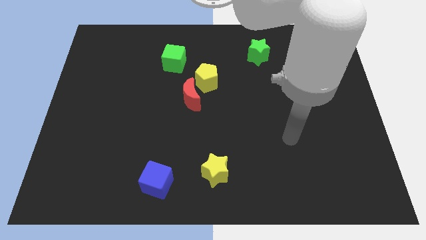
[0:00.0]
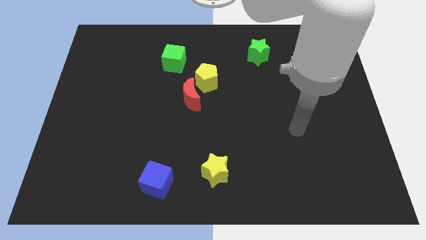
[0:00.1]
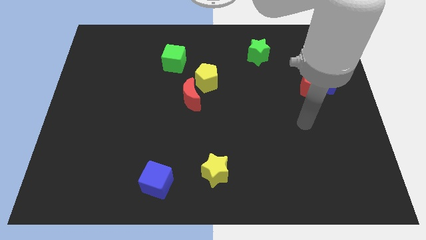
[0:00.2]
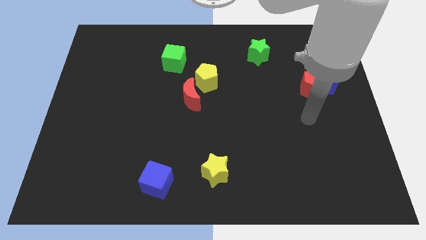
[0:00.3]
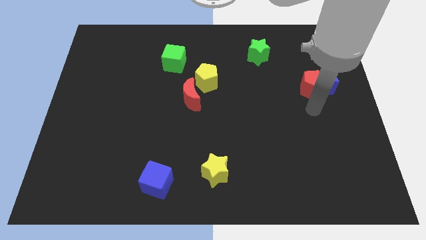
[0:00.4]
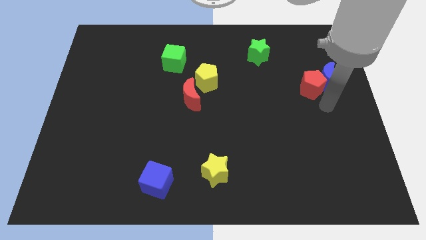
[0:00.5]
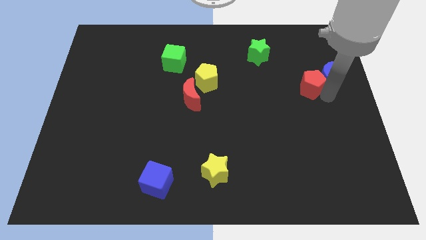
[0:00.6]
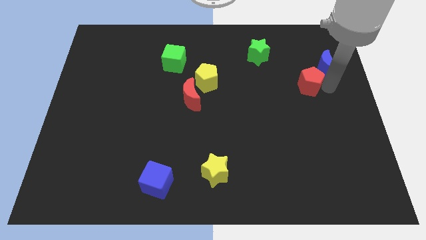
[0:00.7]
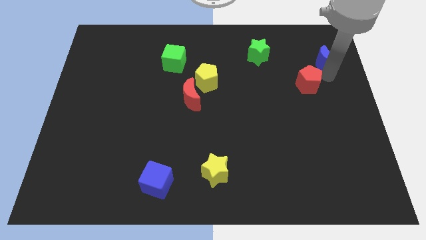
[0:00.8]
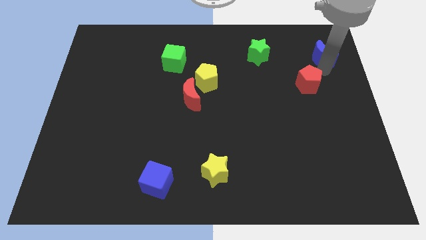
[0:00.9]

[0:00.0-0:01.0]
pull the red pentagon apart from the blue moon

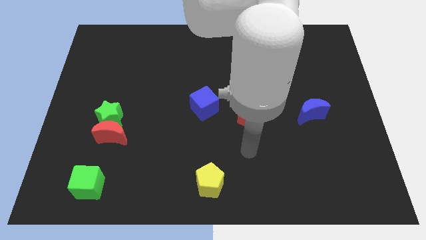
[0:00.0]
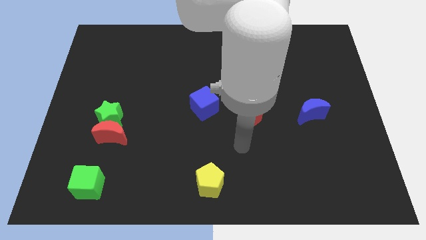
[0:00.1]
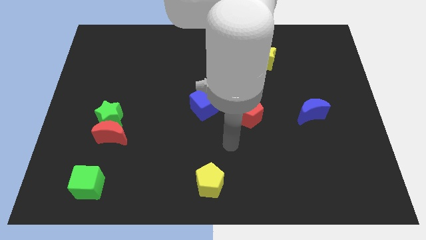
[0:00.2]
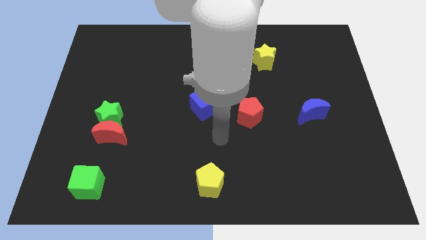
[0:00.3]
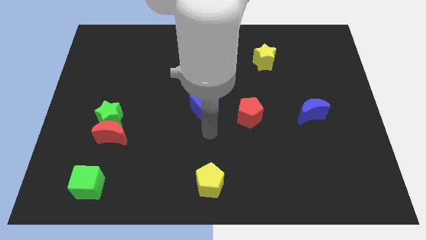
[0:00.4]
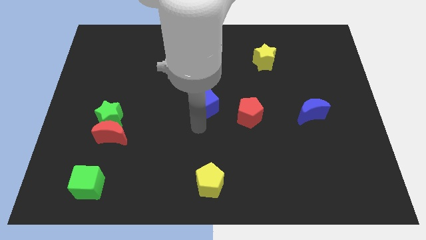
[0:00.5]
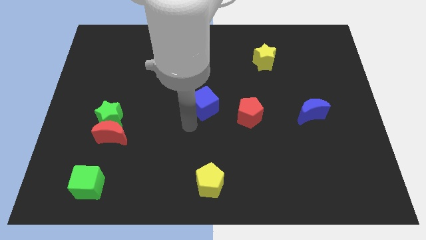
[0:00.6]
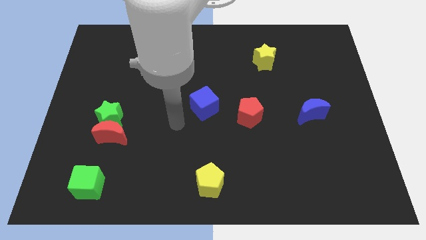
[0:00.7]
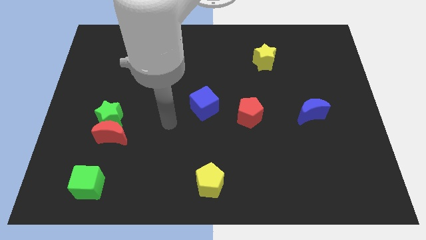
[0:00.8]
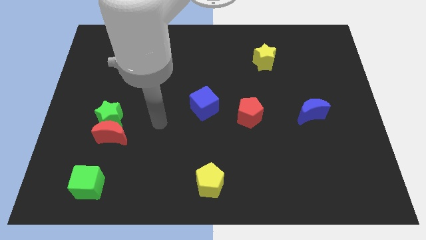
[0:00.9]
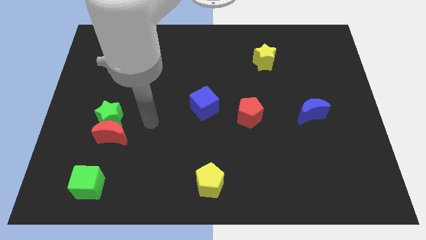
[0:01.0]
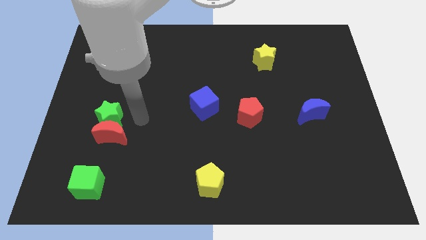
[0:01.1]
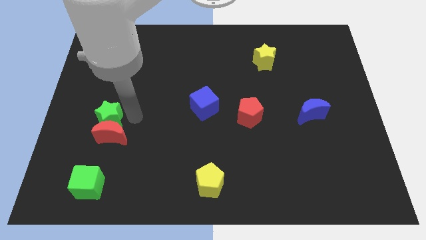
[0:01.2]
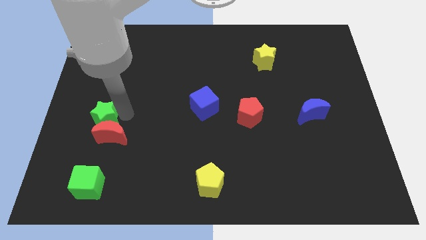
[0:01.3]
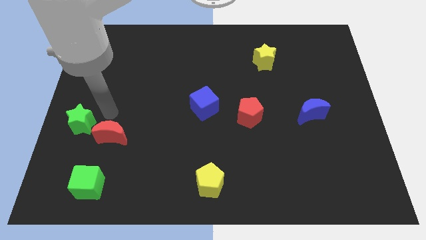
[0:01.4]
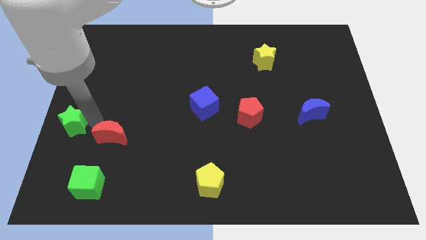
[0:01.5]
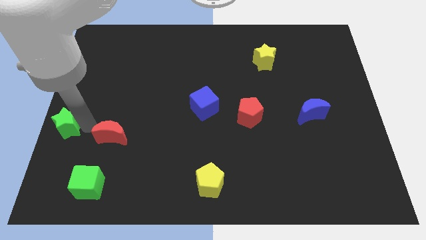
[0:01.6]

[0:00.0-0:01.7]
move the red moon away from the green star

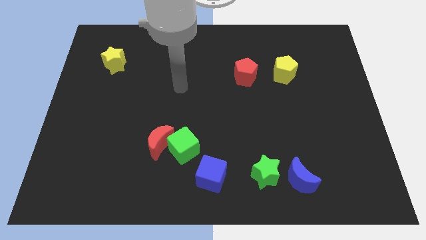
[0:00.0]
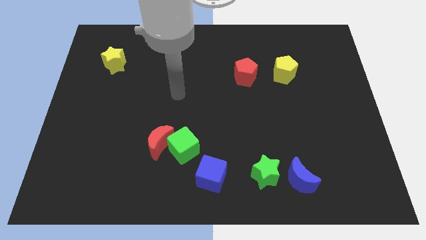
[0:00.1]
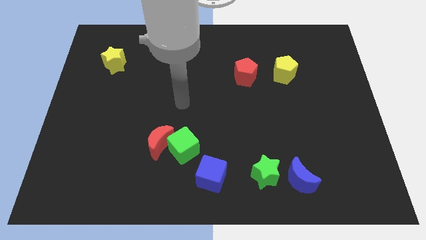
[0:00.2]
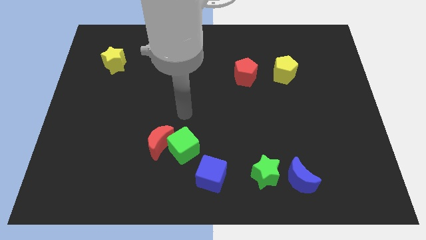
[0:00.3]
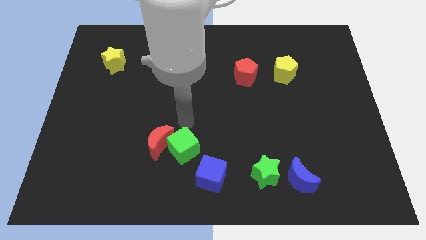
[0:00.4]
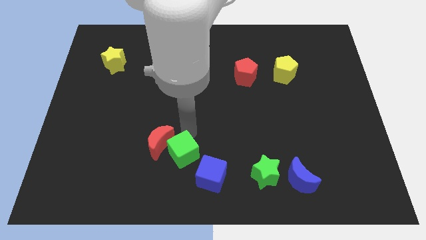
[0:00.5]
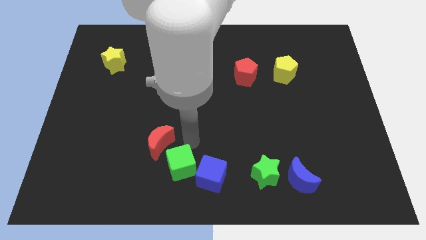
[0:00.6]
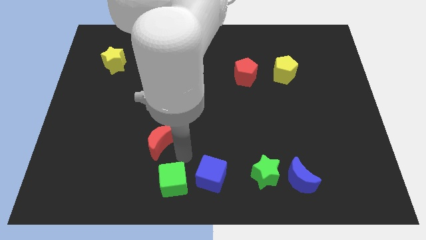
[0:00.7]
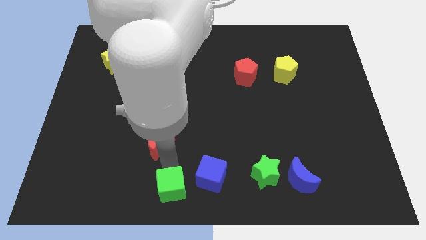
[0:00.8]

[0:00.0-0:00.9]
move the red moon away from the green cube

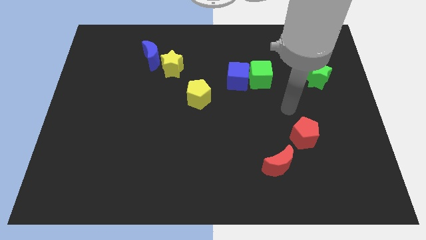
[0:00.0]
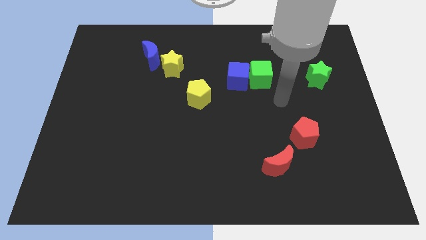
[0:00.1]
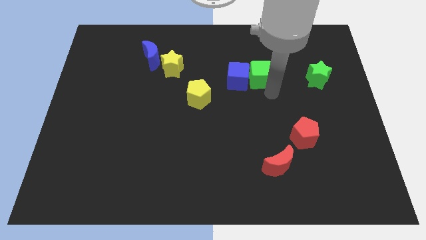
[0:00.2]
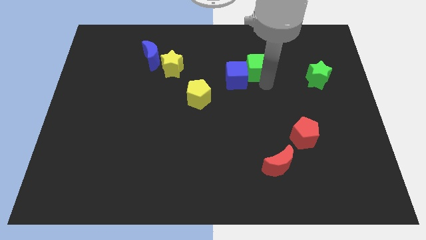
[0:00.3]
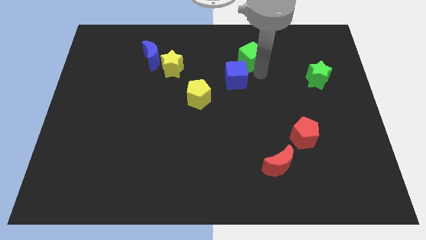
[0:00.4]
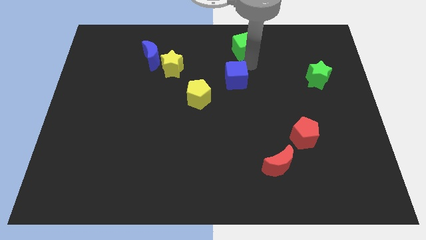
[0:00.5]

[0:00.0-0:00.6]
pull the blue cube apart from the green cube

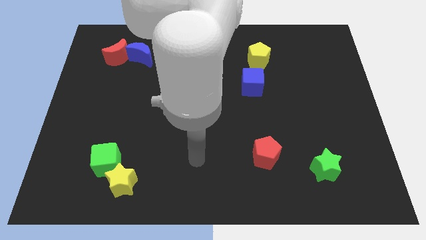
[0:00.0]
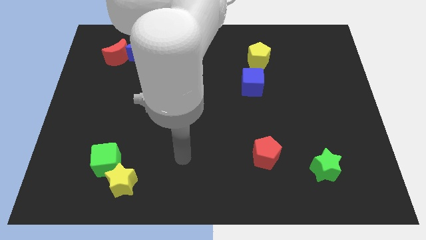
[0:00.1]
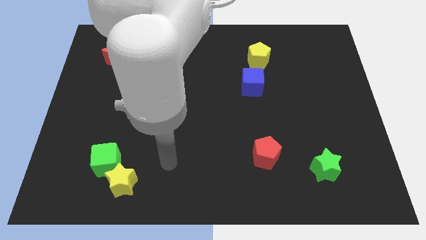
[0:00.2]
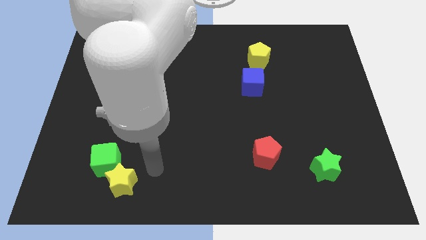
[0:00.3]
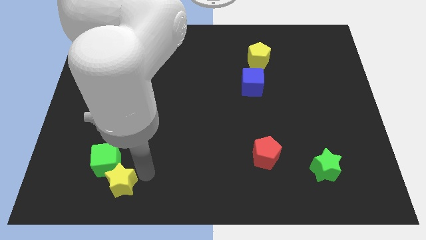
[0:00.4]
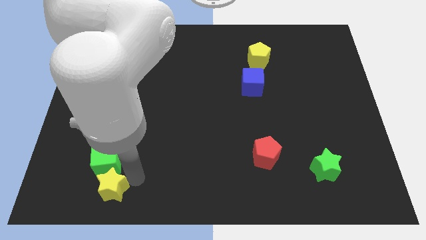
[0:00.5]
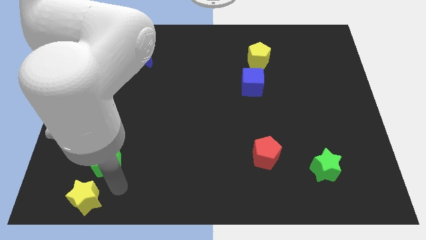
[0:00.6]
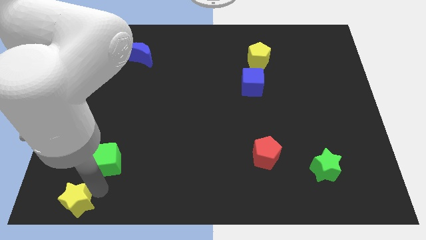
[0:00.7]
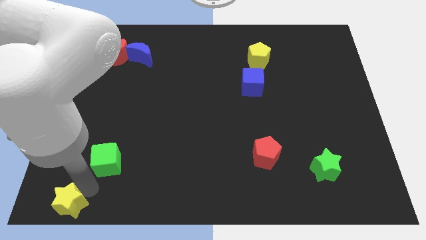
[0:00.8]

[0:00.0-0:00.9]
move the green cube away from the yellow star

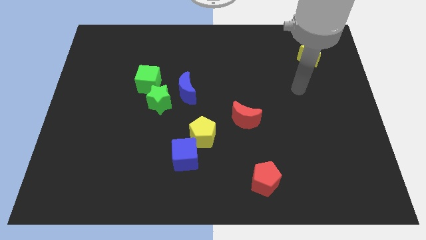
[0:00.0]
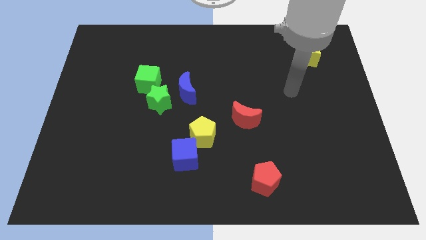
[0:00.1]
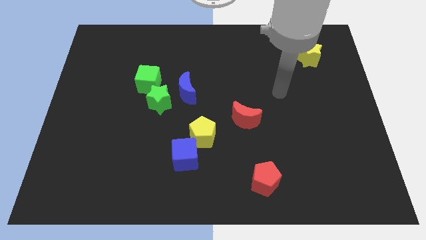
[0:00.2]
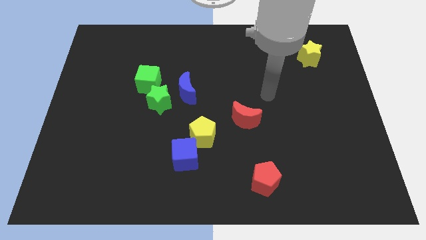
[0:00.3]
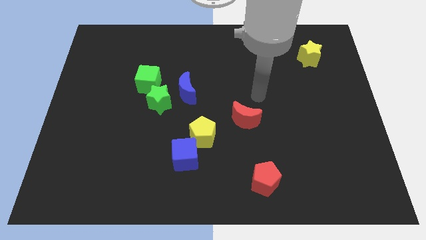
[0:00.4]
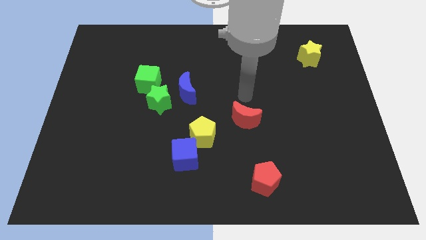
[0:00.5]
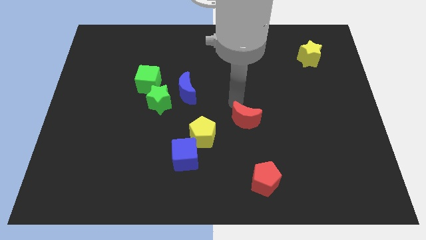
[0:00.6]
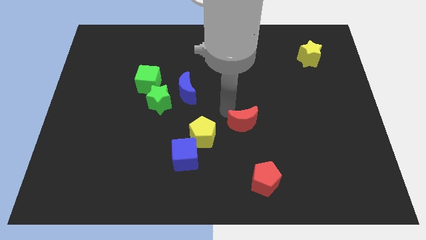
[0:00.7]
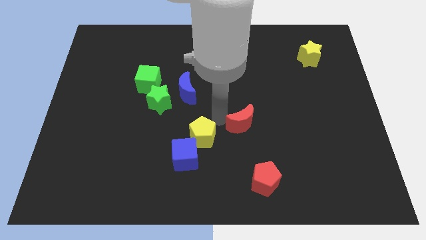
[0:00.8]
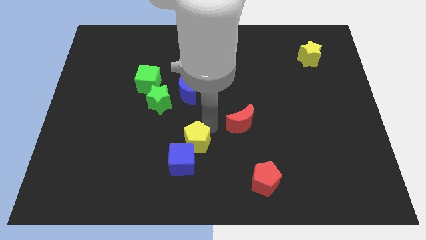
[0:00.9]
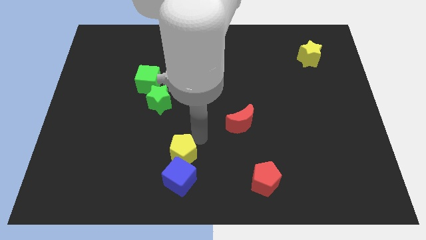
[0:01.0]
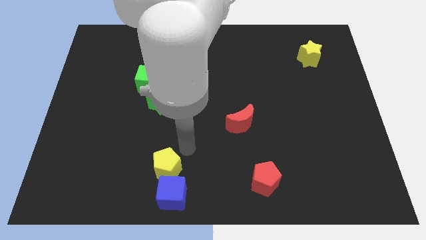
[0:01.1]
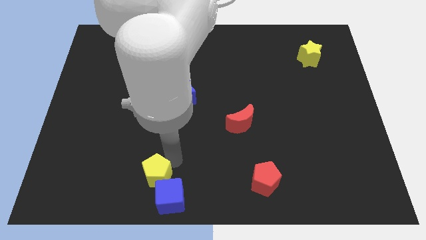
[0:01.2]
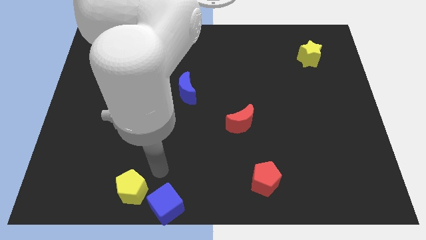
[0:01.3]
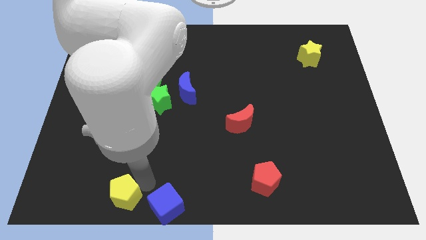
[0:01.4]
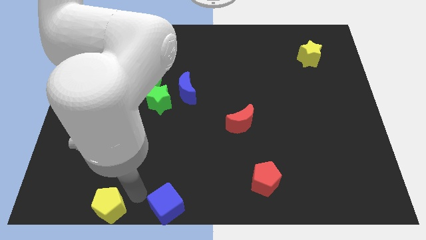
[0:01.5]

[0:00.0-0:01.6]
pull the blue cube apart from the yellow pentagon

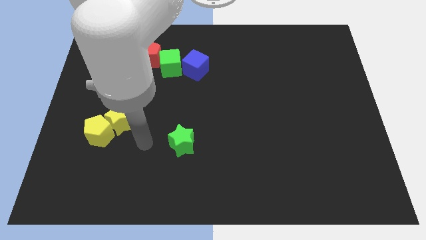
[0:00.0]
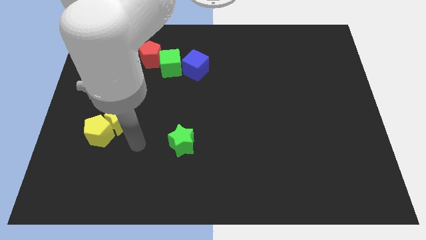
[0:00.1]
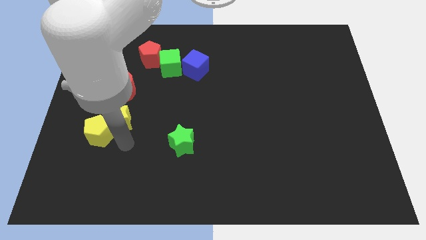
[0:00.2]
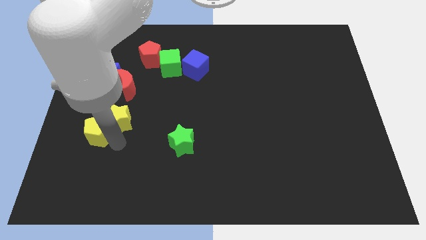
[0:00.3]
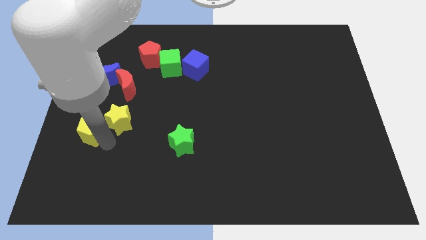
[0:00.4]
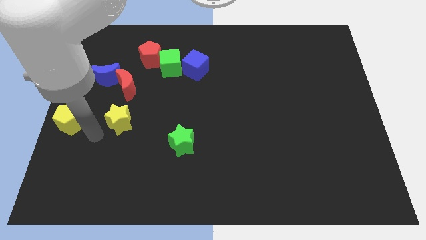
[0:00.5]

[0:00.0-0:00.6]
separate the yellow star from the yellow pentagon

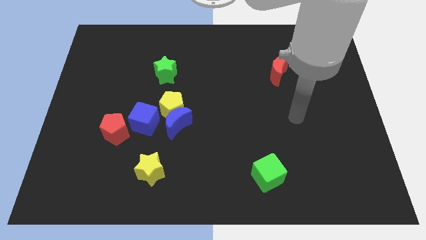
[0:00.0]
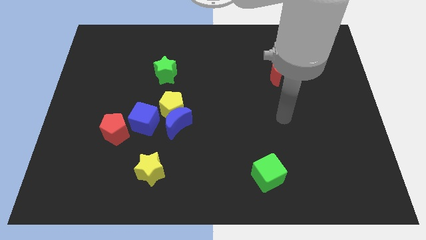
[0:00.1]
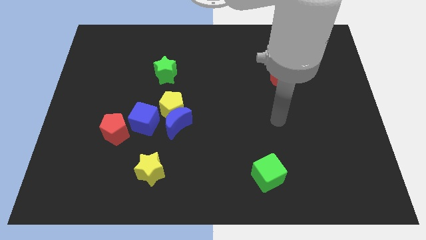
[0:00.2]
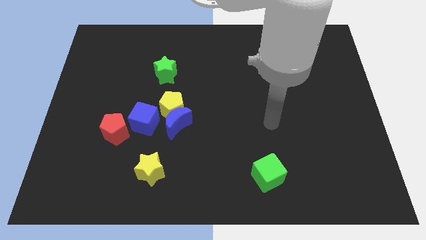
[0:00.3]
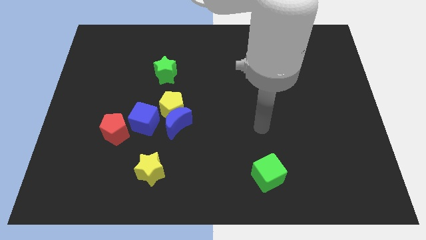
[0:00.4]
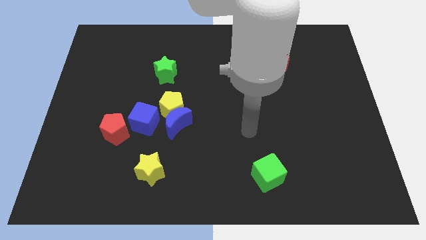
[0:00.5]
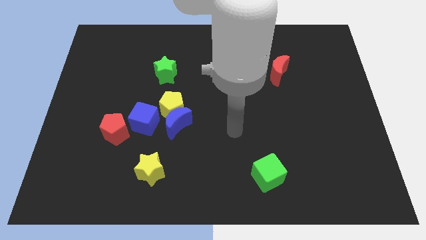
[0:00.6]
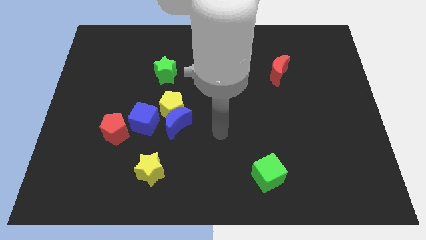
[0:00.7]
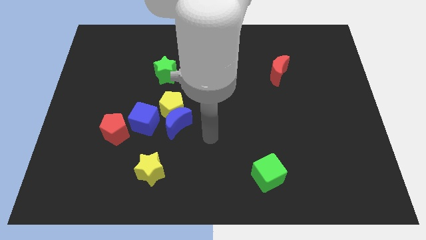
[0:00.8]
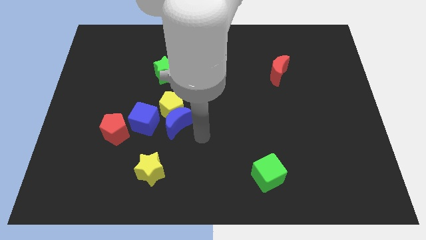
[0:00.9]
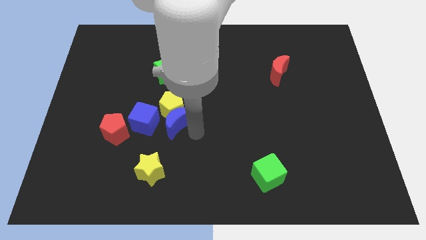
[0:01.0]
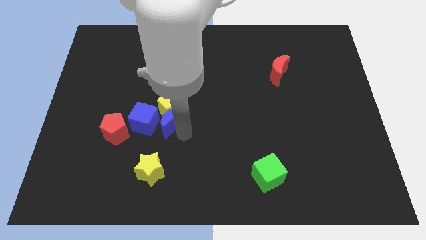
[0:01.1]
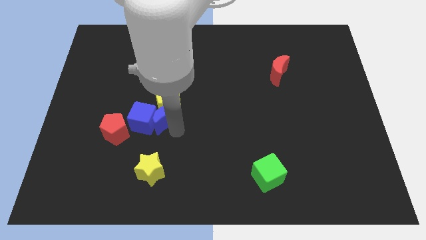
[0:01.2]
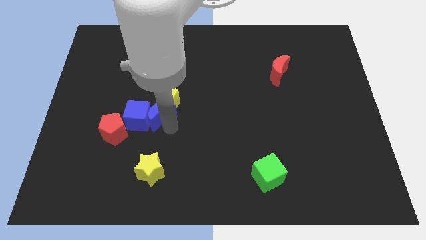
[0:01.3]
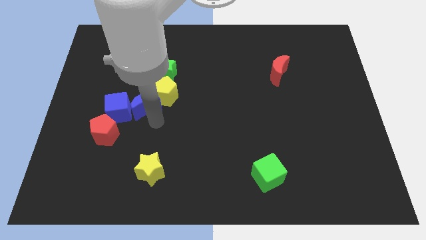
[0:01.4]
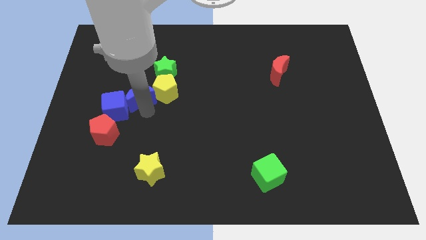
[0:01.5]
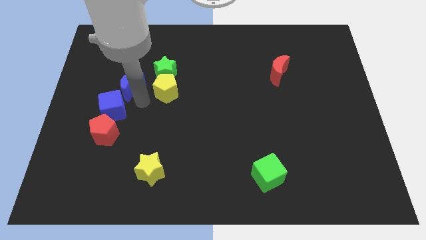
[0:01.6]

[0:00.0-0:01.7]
pull the yellow pentagon apart from the blue moon and blue cube

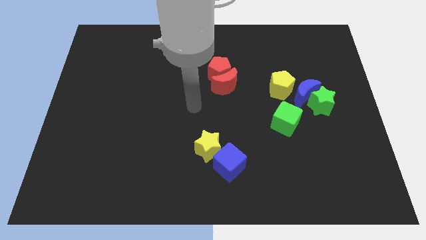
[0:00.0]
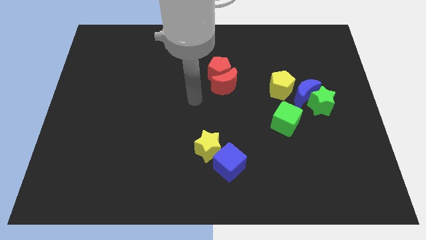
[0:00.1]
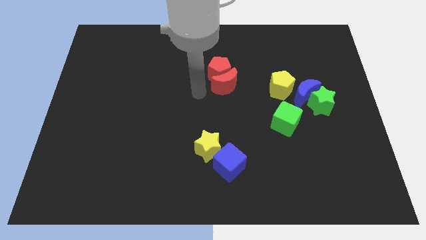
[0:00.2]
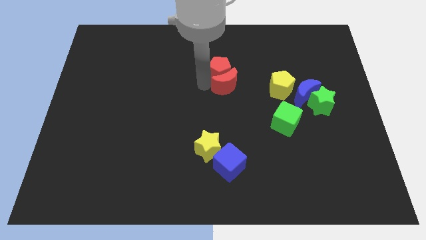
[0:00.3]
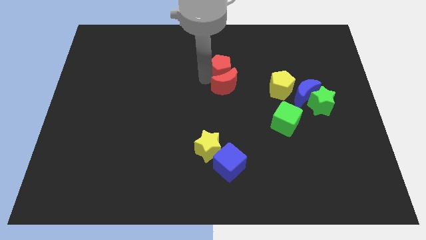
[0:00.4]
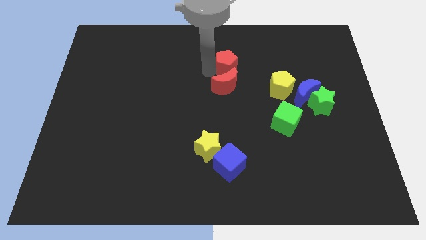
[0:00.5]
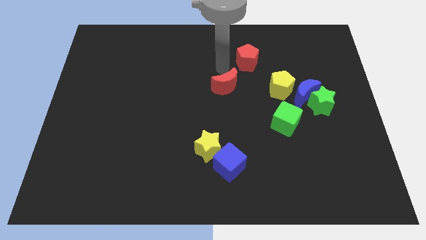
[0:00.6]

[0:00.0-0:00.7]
move the red moon away from the red pentagon
